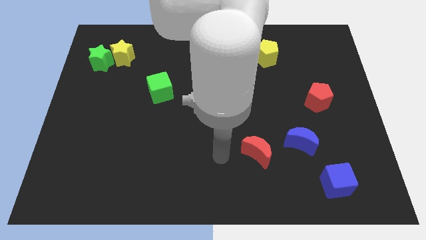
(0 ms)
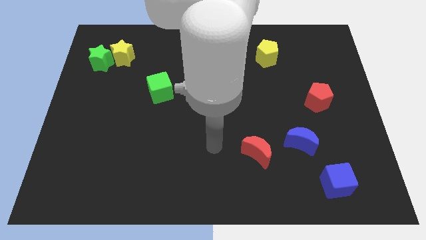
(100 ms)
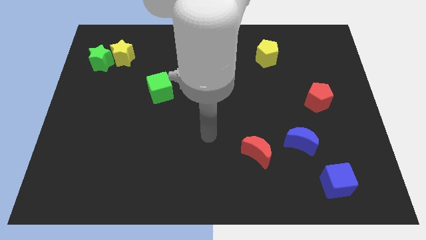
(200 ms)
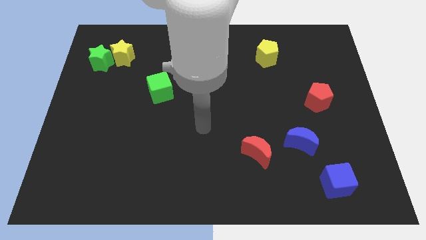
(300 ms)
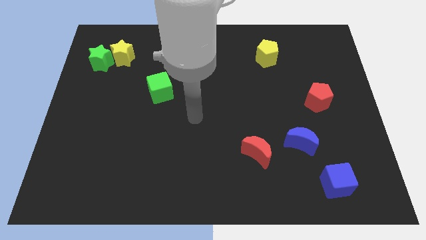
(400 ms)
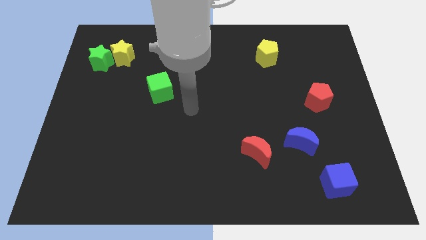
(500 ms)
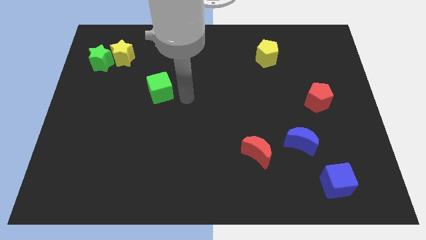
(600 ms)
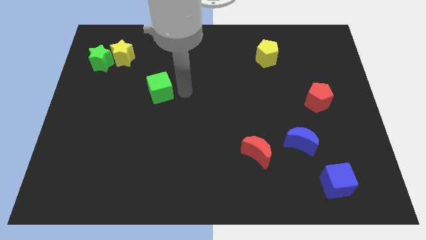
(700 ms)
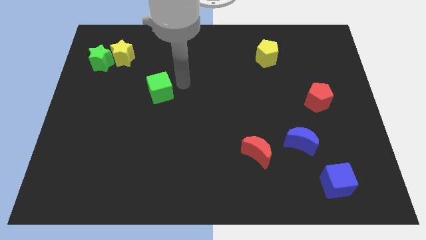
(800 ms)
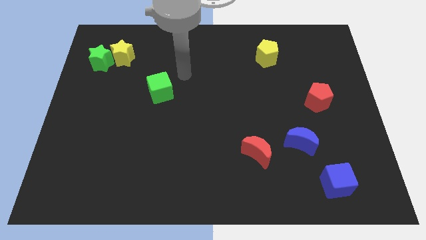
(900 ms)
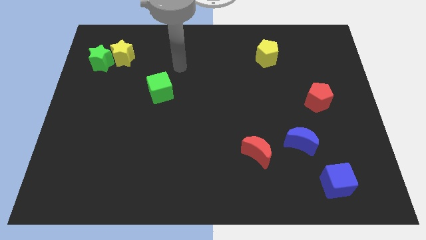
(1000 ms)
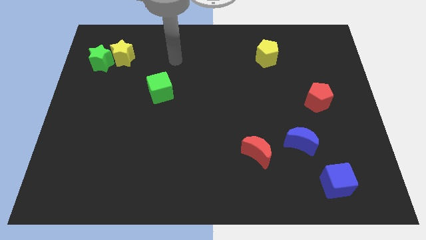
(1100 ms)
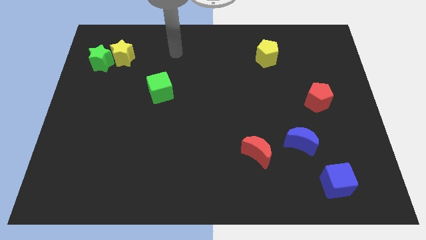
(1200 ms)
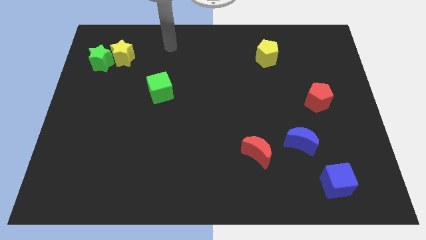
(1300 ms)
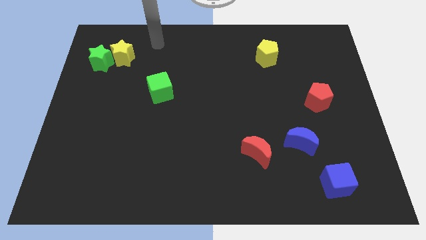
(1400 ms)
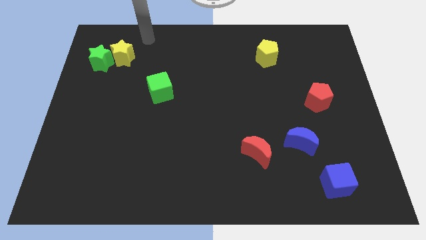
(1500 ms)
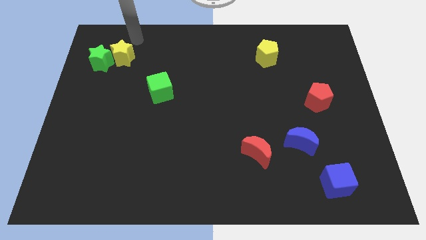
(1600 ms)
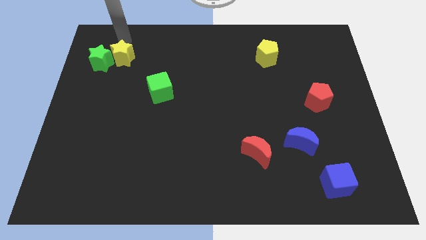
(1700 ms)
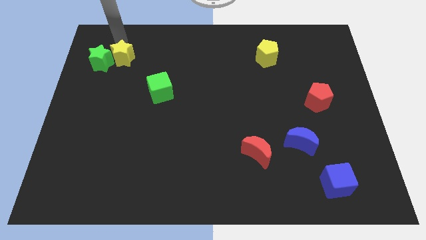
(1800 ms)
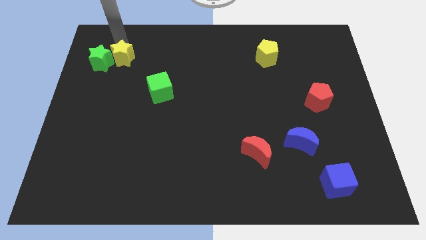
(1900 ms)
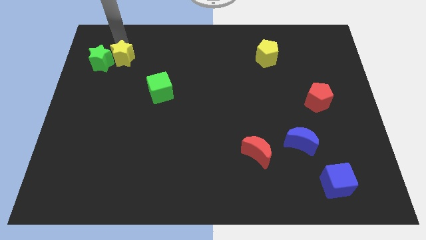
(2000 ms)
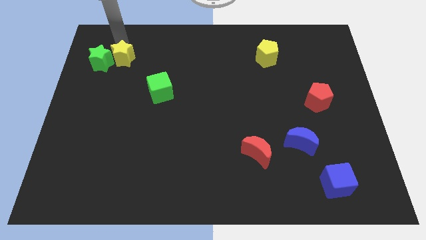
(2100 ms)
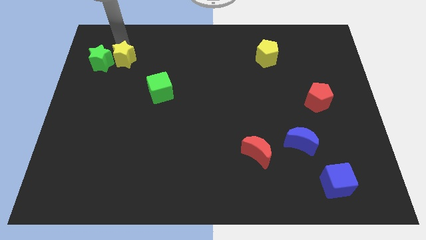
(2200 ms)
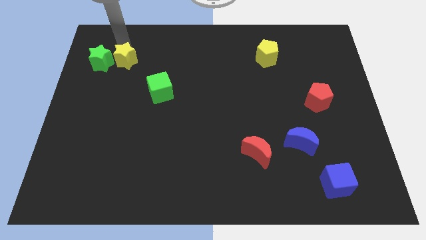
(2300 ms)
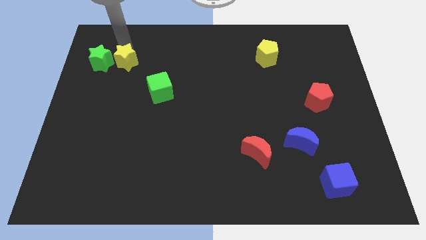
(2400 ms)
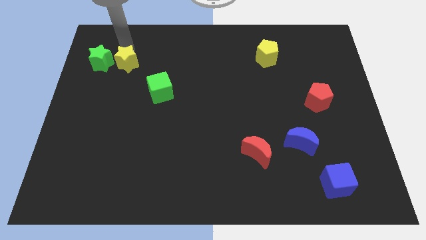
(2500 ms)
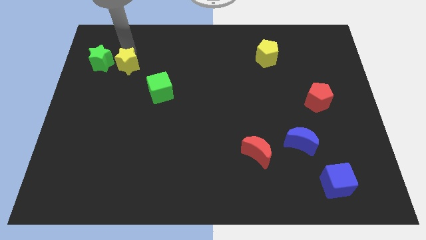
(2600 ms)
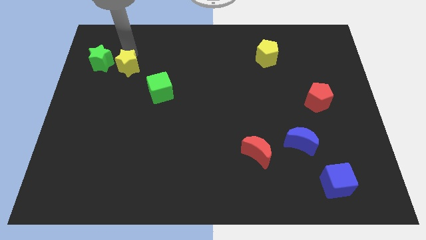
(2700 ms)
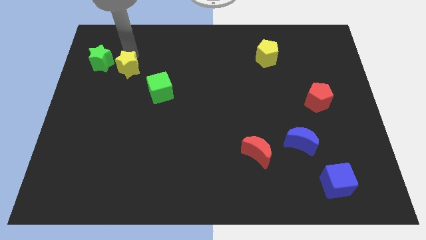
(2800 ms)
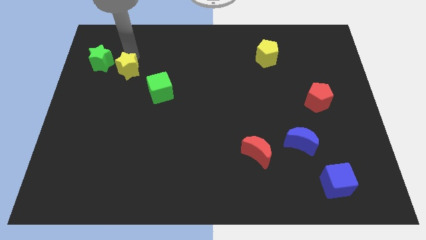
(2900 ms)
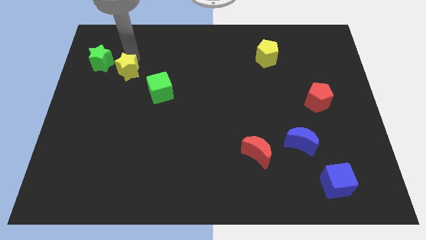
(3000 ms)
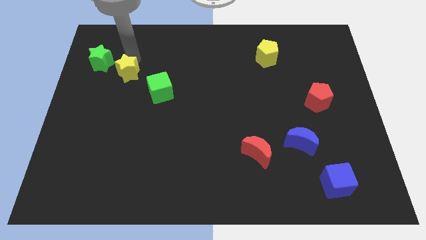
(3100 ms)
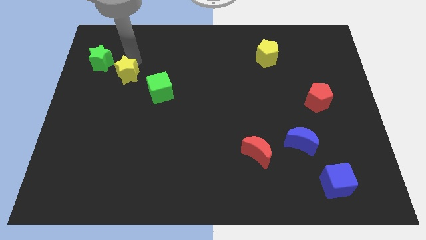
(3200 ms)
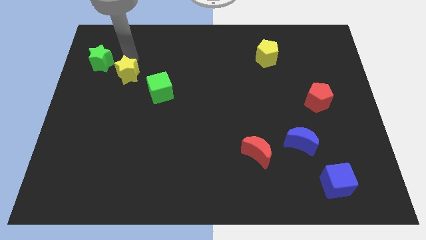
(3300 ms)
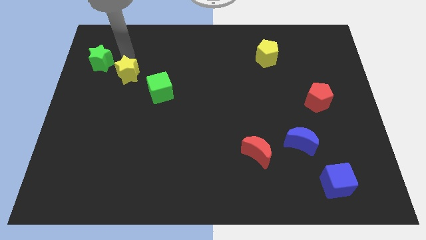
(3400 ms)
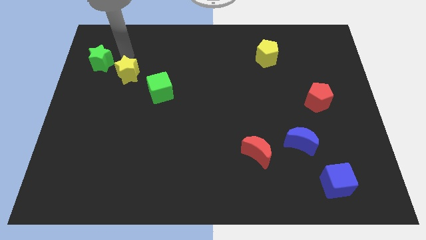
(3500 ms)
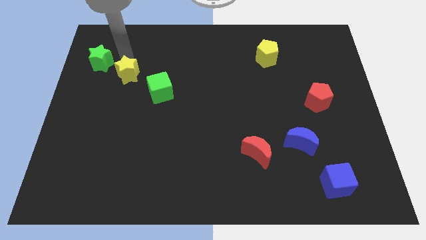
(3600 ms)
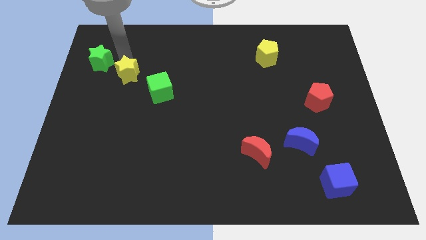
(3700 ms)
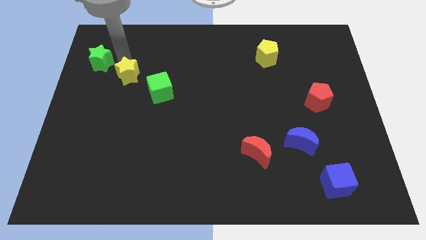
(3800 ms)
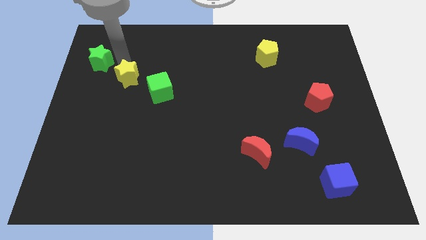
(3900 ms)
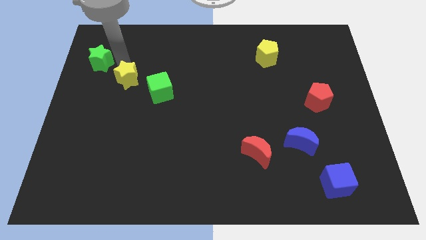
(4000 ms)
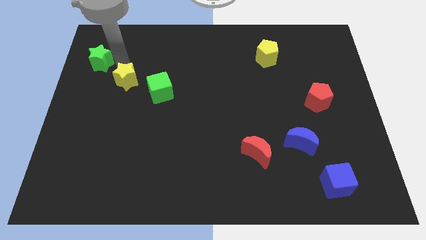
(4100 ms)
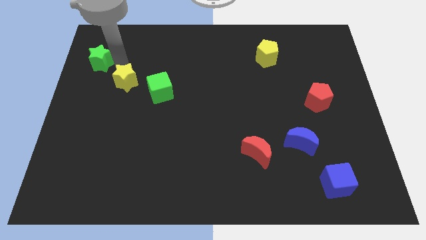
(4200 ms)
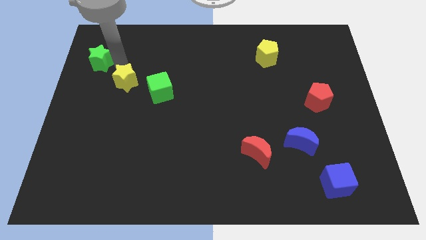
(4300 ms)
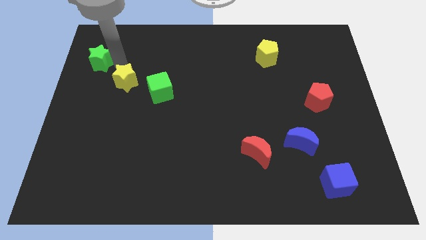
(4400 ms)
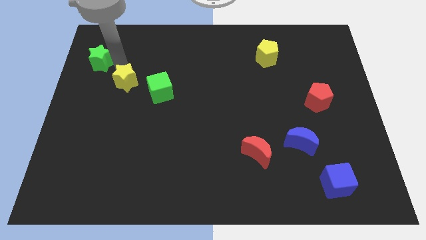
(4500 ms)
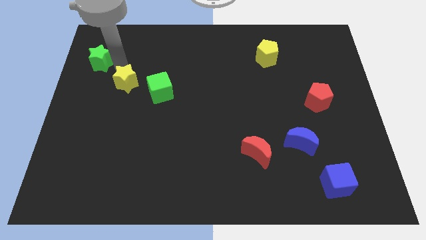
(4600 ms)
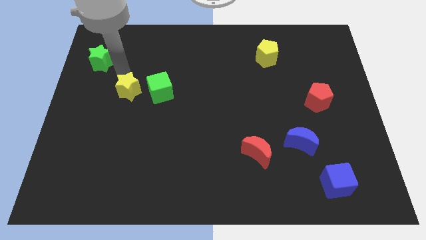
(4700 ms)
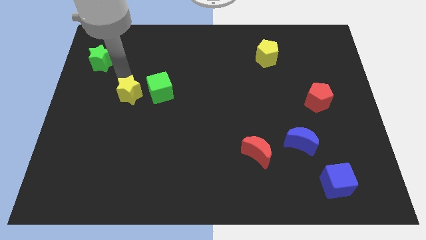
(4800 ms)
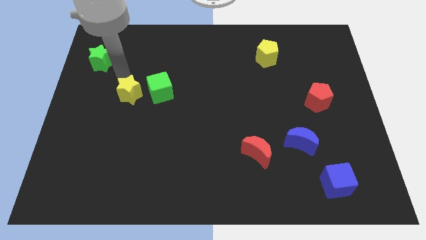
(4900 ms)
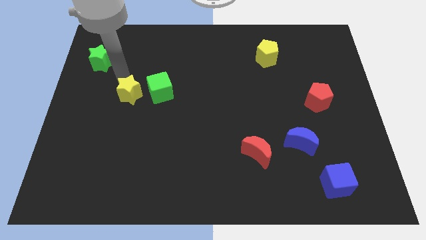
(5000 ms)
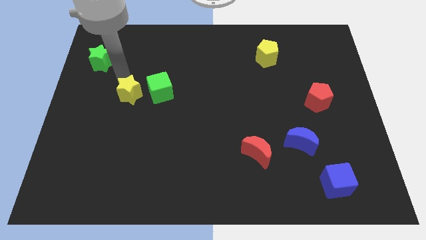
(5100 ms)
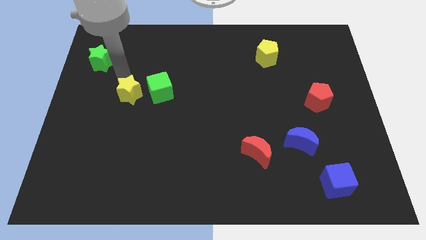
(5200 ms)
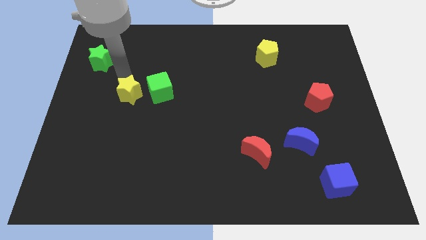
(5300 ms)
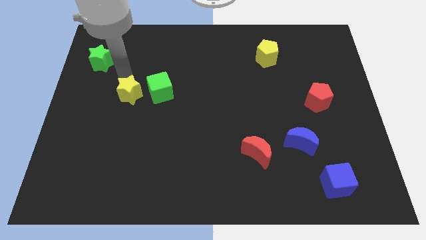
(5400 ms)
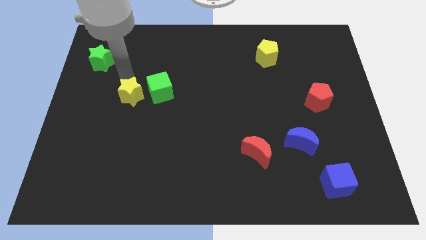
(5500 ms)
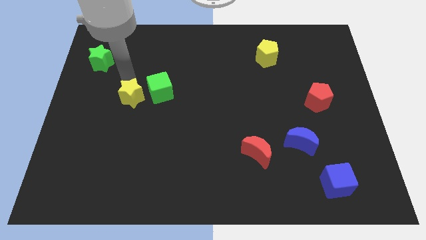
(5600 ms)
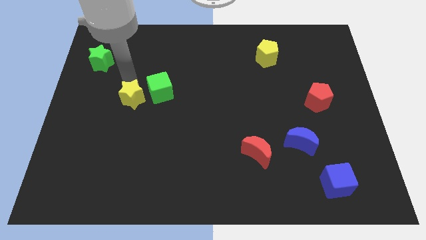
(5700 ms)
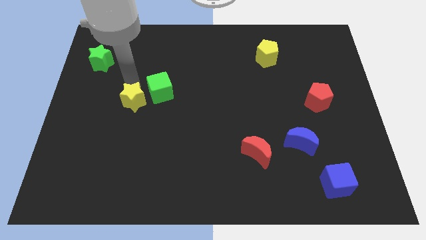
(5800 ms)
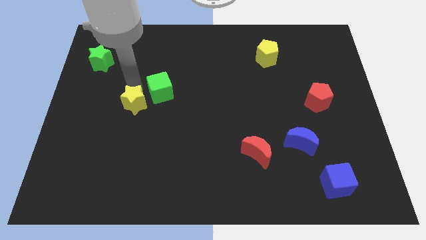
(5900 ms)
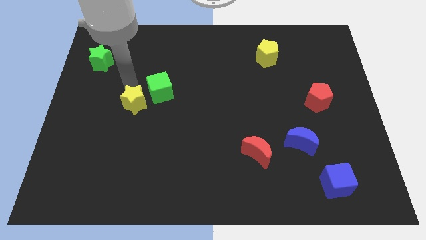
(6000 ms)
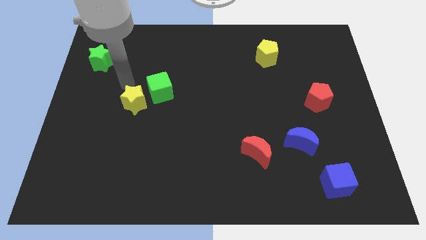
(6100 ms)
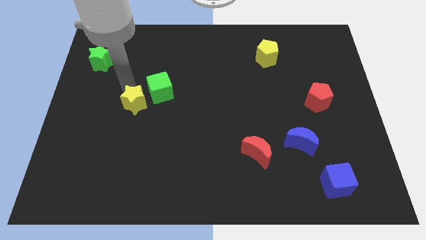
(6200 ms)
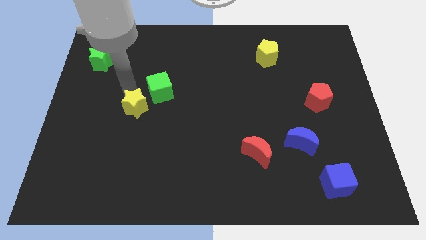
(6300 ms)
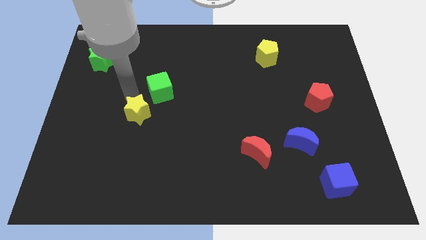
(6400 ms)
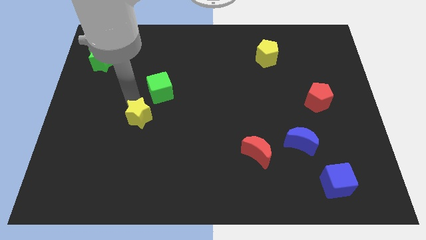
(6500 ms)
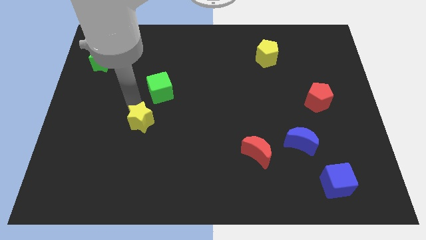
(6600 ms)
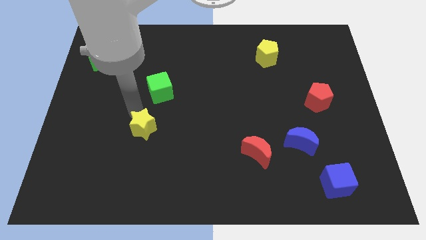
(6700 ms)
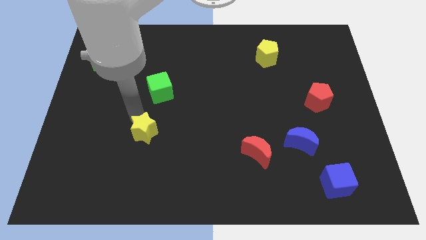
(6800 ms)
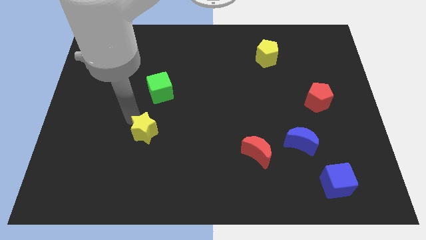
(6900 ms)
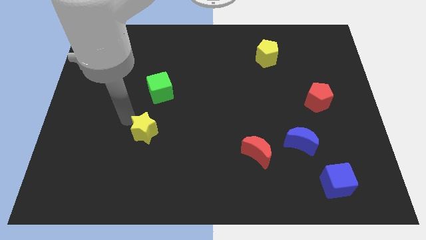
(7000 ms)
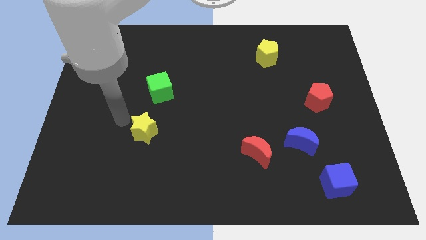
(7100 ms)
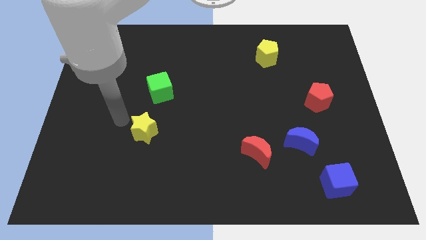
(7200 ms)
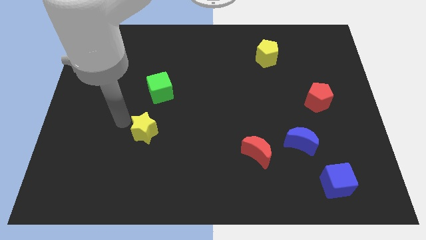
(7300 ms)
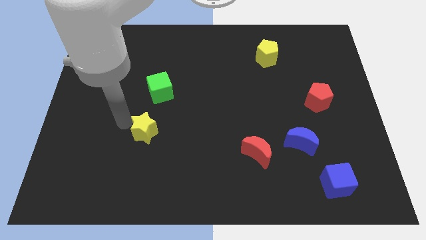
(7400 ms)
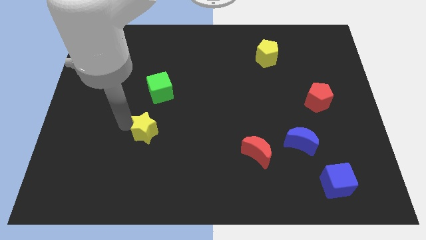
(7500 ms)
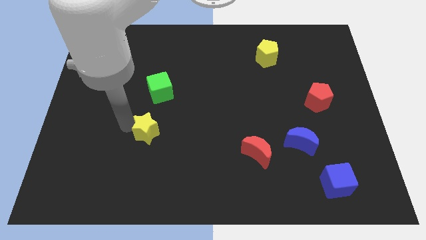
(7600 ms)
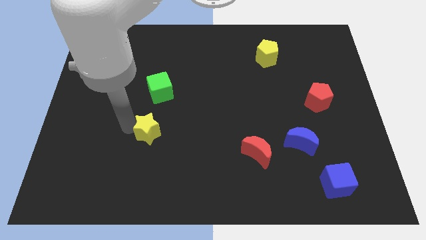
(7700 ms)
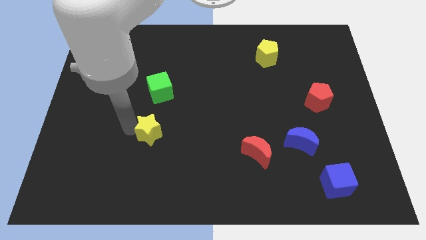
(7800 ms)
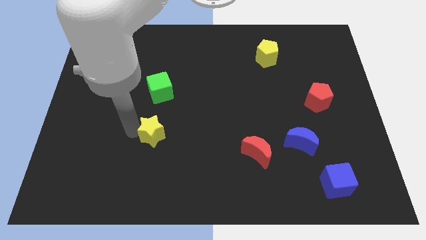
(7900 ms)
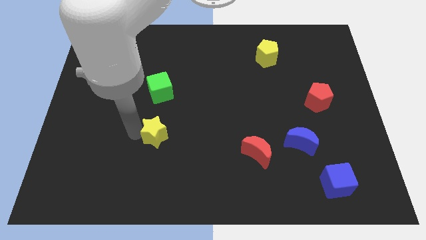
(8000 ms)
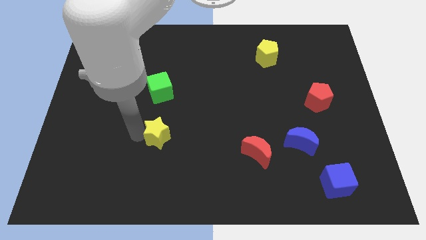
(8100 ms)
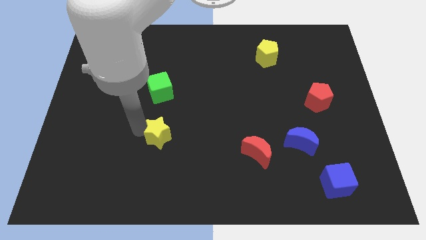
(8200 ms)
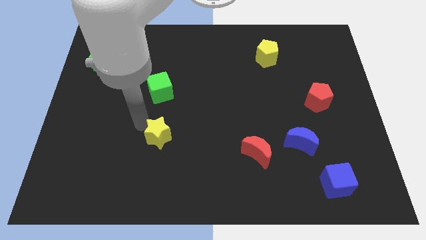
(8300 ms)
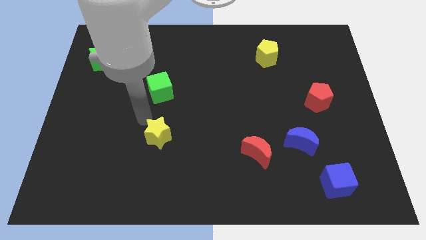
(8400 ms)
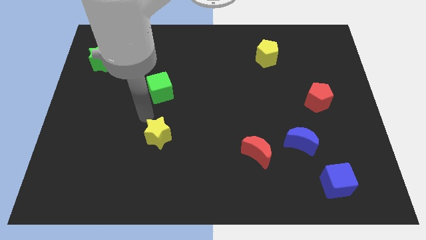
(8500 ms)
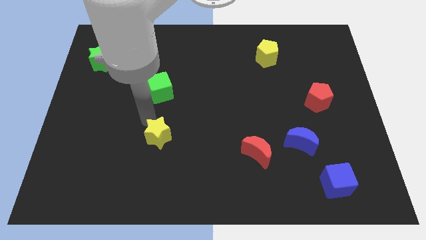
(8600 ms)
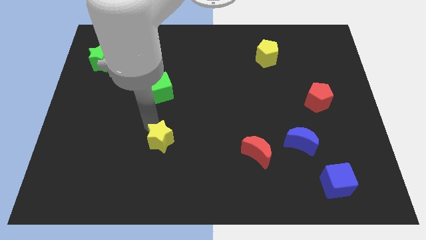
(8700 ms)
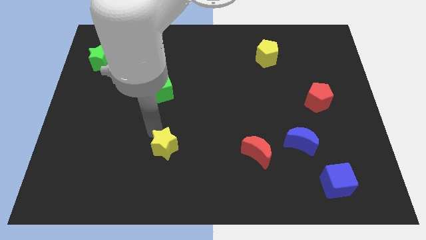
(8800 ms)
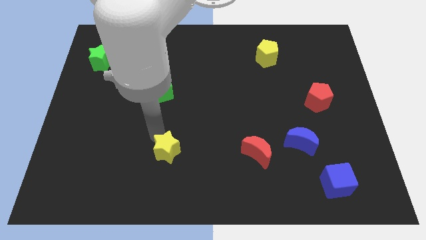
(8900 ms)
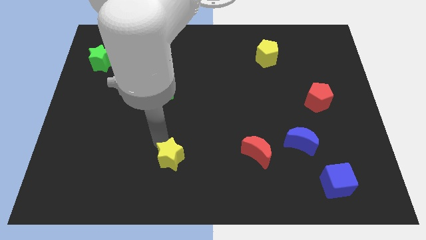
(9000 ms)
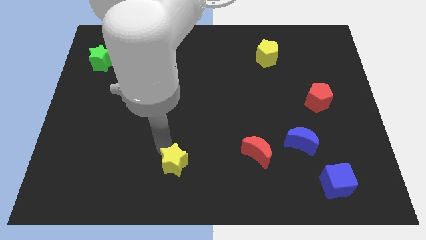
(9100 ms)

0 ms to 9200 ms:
slide the yellow star to the bottom side
